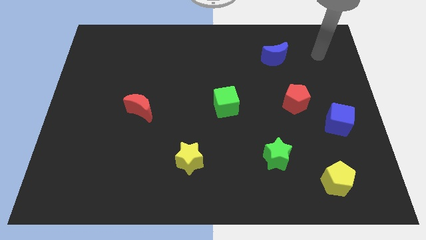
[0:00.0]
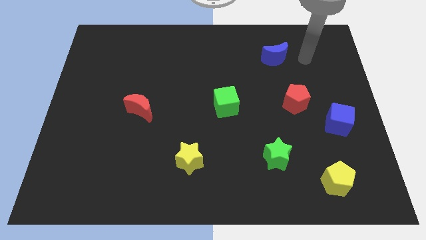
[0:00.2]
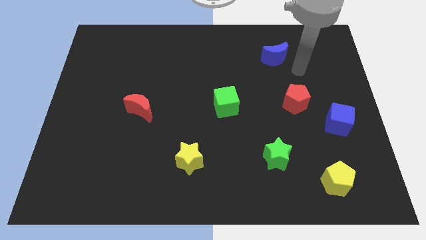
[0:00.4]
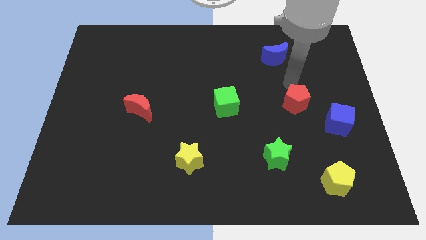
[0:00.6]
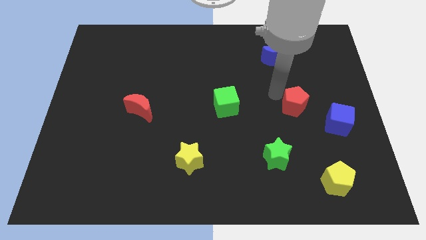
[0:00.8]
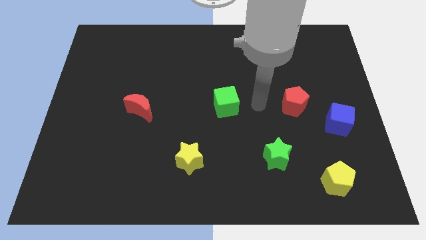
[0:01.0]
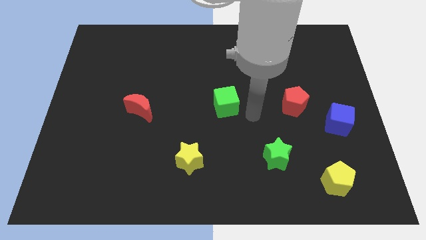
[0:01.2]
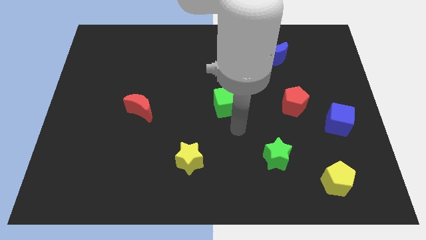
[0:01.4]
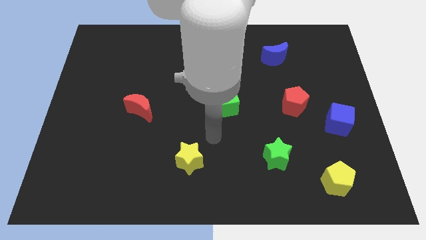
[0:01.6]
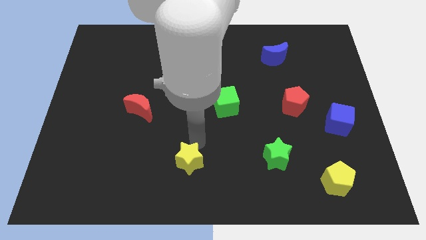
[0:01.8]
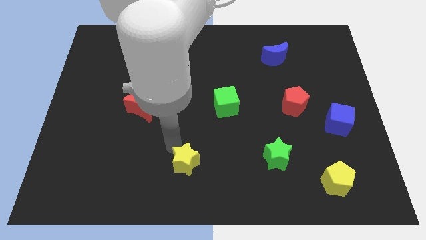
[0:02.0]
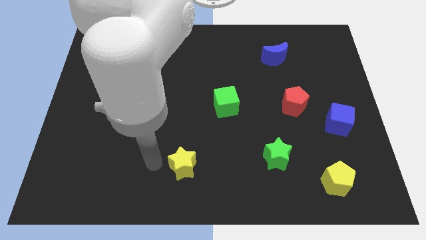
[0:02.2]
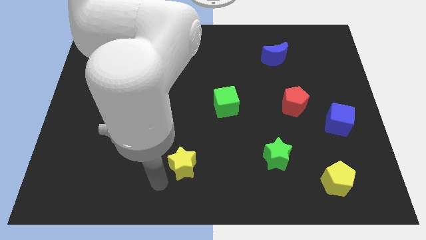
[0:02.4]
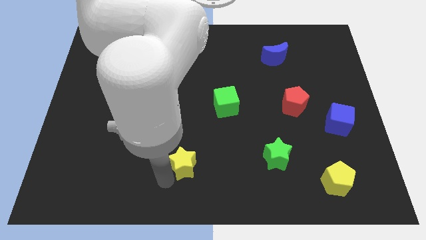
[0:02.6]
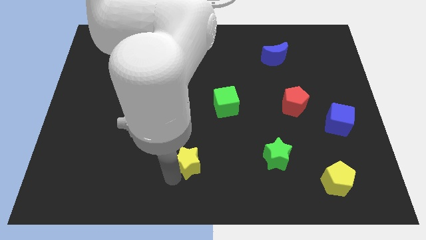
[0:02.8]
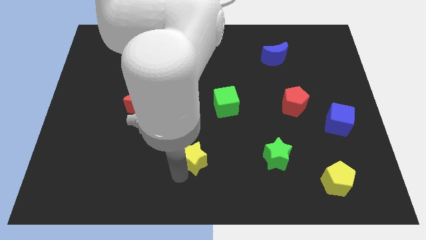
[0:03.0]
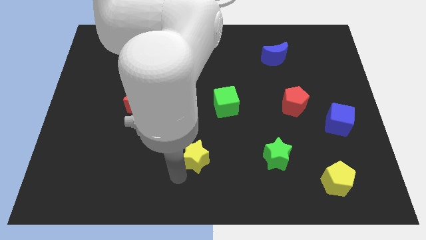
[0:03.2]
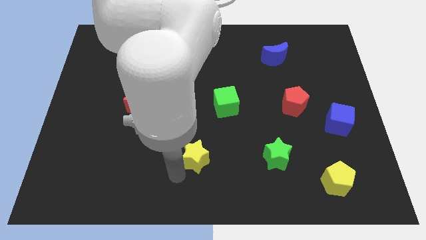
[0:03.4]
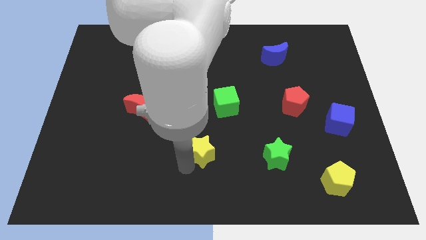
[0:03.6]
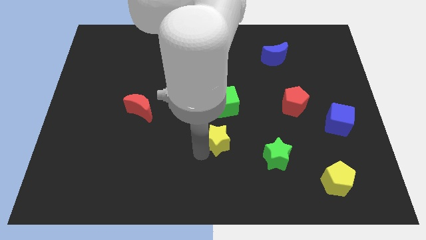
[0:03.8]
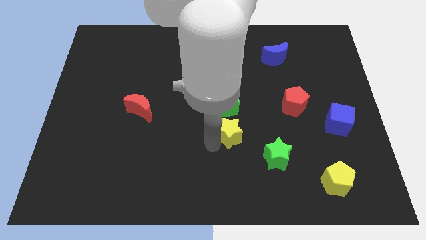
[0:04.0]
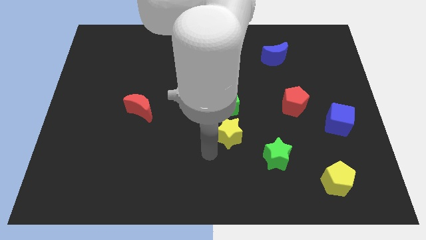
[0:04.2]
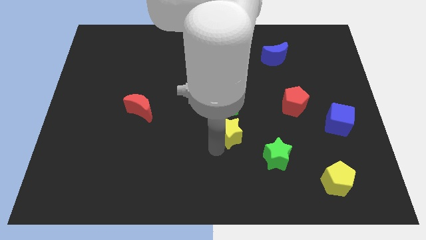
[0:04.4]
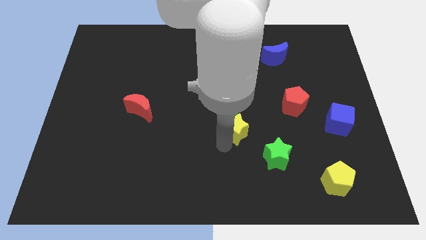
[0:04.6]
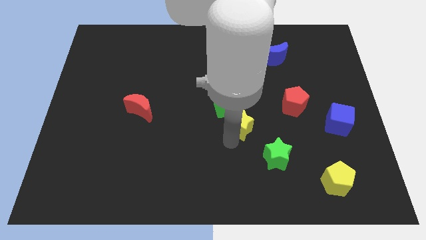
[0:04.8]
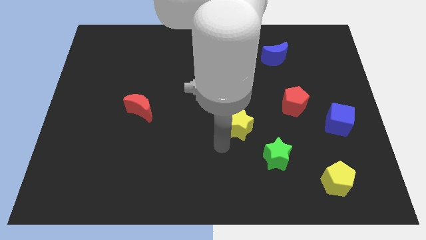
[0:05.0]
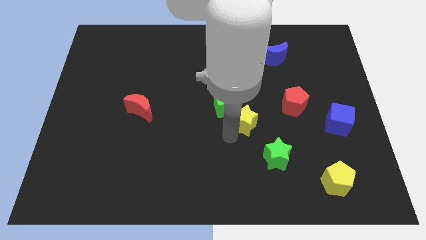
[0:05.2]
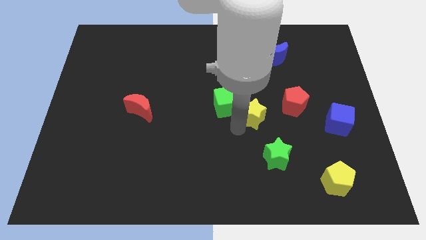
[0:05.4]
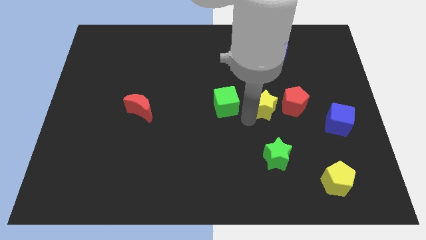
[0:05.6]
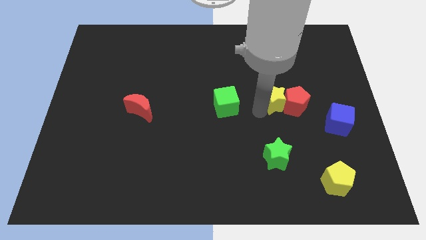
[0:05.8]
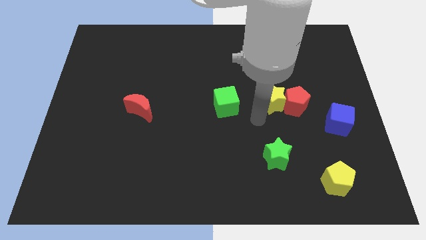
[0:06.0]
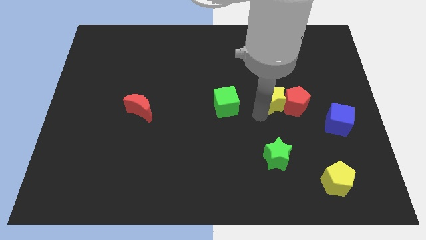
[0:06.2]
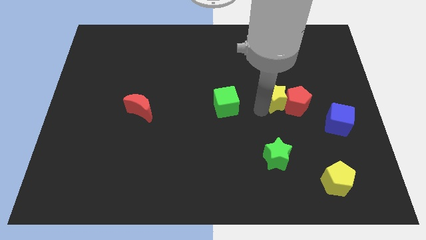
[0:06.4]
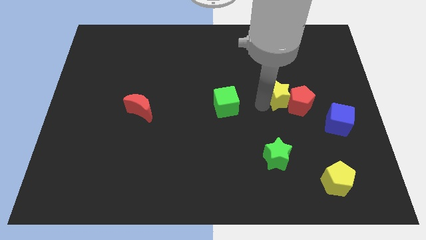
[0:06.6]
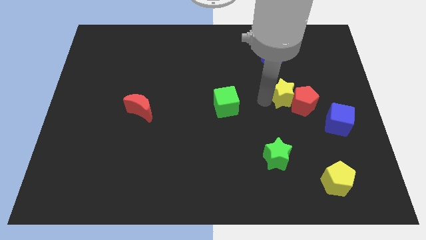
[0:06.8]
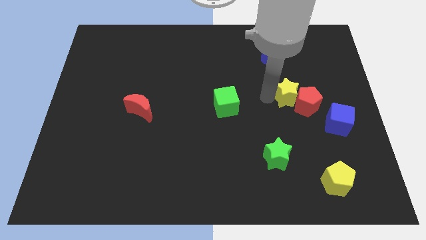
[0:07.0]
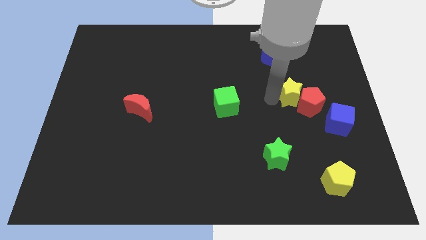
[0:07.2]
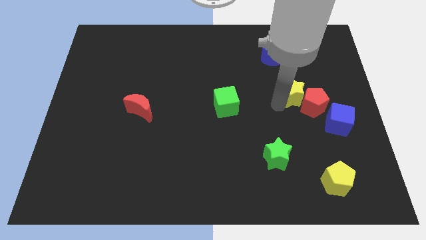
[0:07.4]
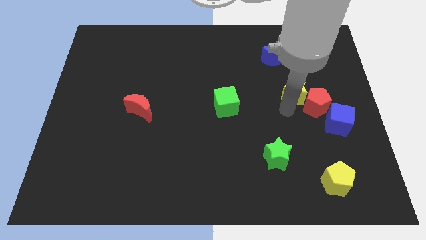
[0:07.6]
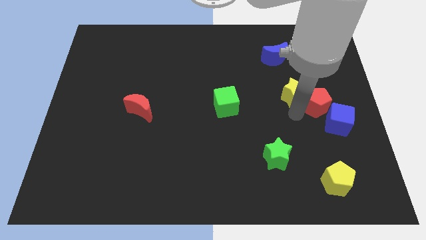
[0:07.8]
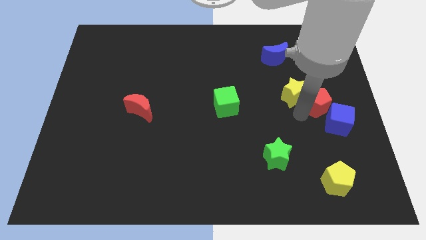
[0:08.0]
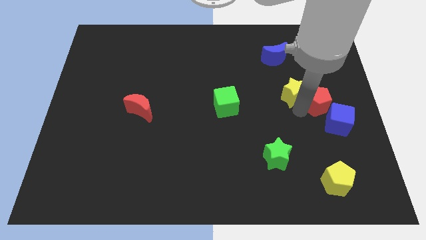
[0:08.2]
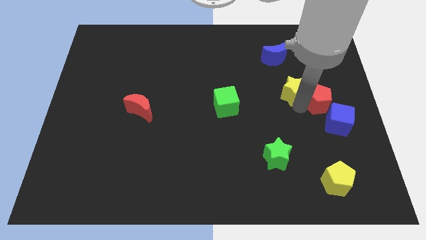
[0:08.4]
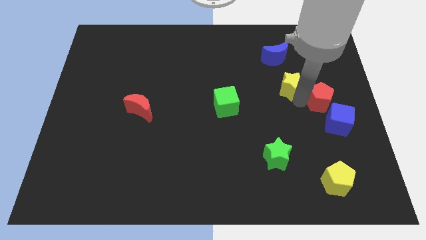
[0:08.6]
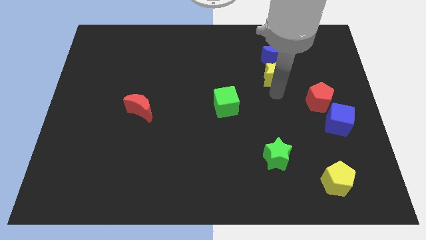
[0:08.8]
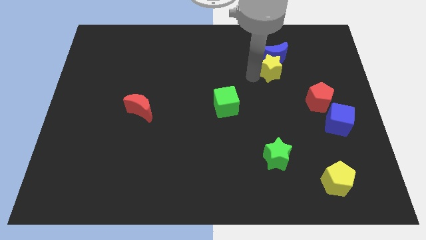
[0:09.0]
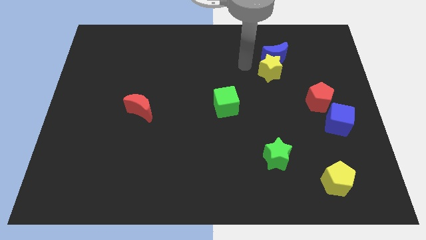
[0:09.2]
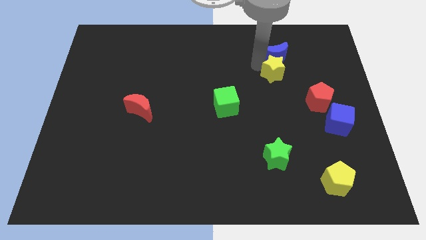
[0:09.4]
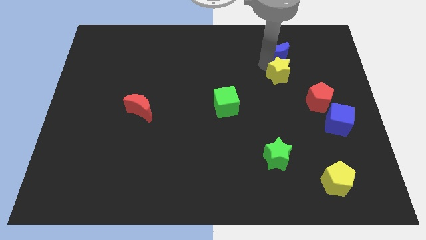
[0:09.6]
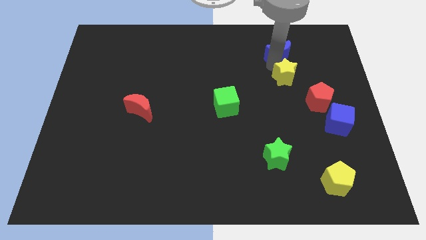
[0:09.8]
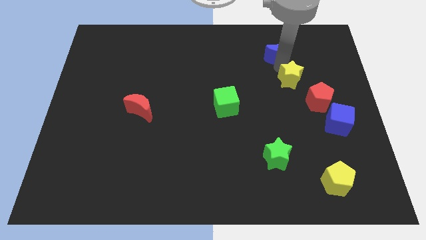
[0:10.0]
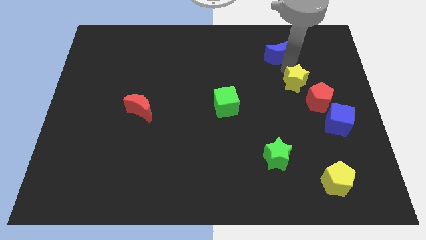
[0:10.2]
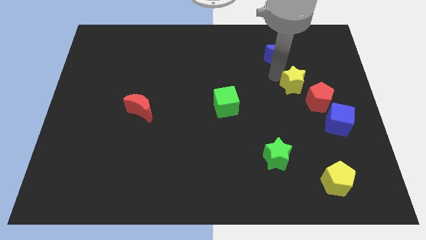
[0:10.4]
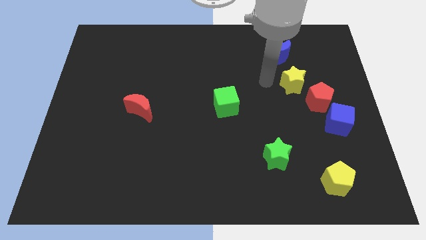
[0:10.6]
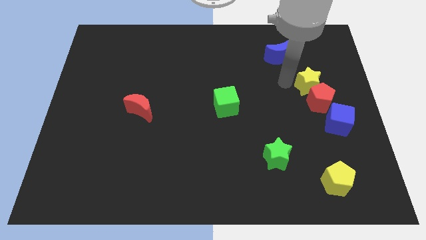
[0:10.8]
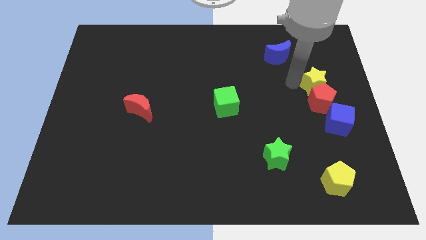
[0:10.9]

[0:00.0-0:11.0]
push the yellow star to the top right side of the red pentagon

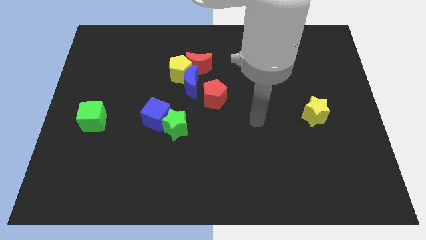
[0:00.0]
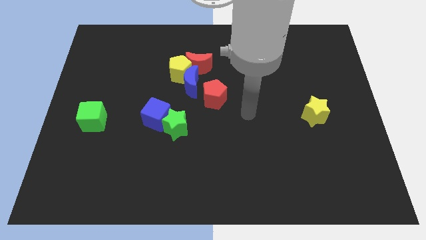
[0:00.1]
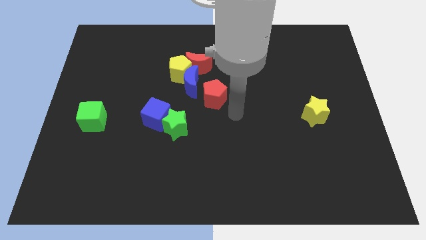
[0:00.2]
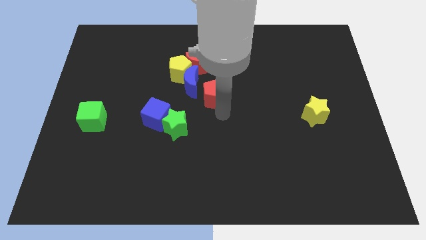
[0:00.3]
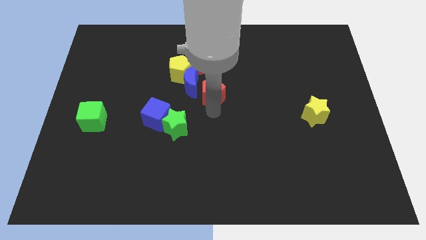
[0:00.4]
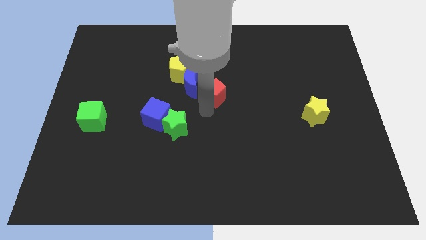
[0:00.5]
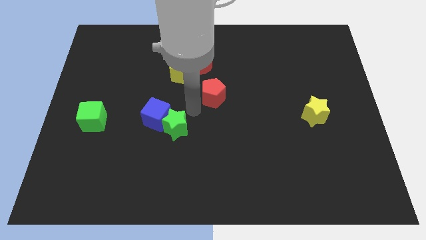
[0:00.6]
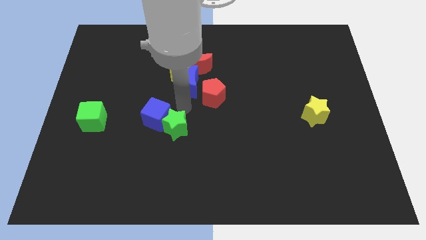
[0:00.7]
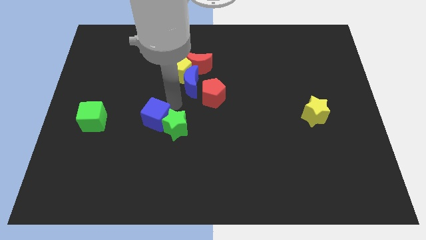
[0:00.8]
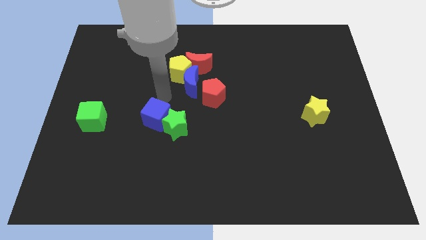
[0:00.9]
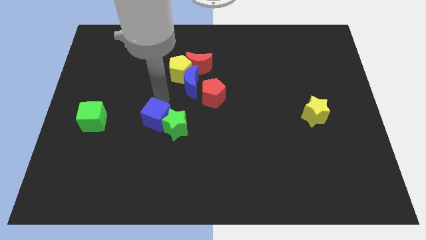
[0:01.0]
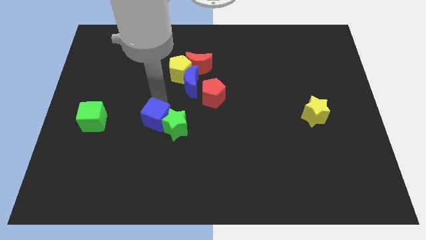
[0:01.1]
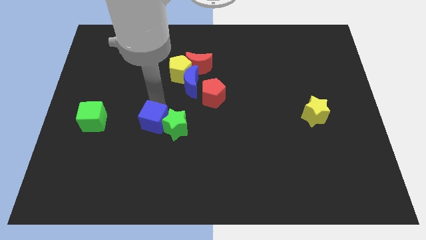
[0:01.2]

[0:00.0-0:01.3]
push the blue cube to the bottom left of the green star
